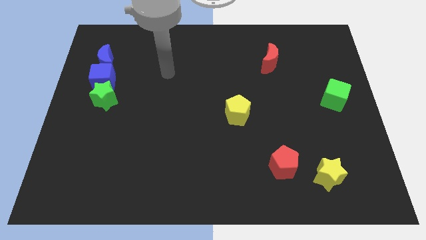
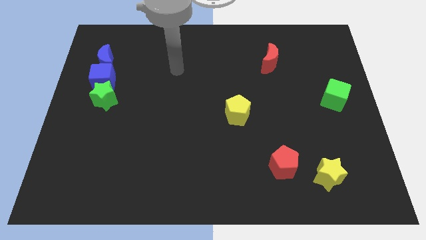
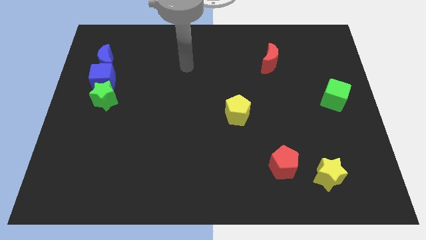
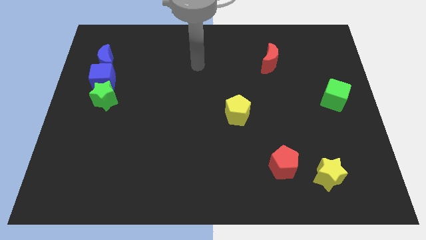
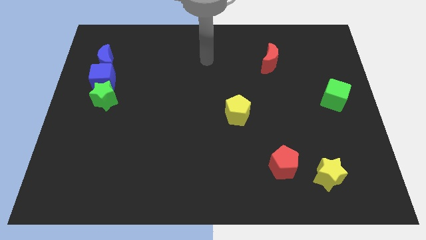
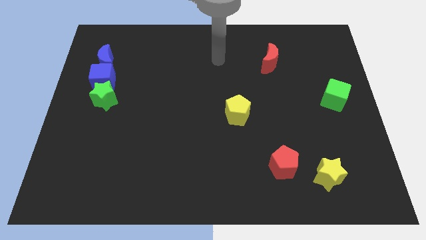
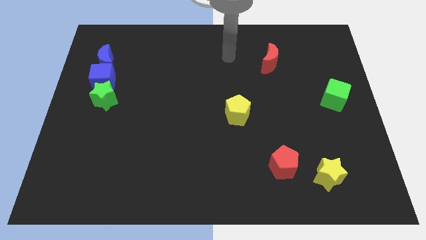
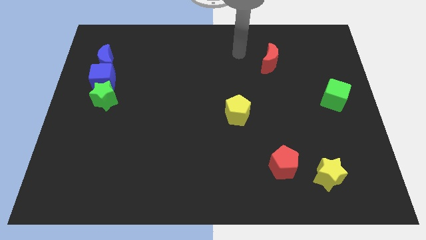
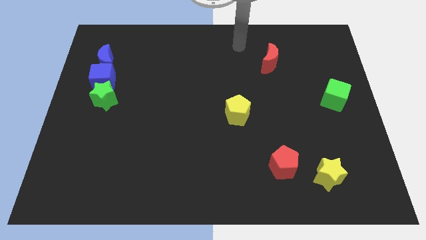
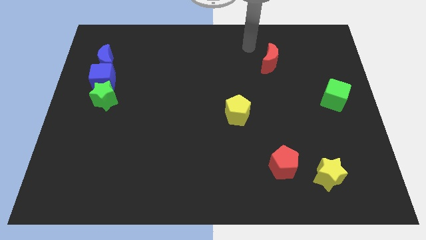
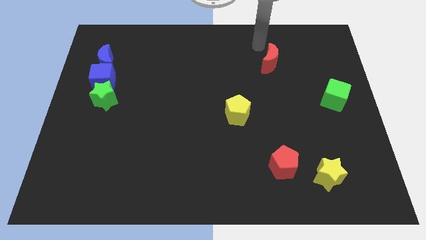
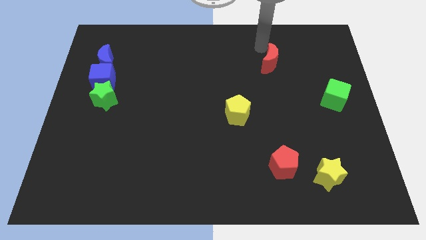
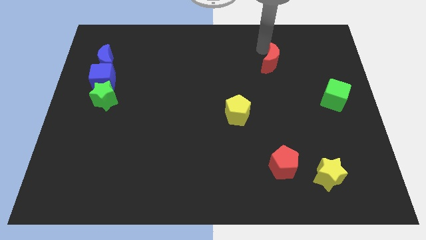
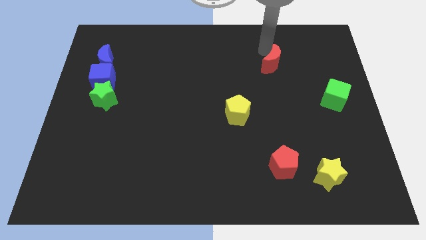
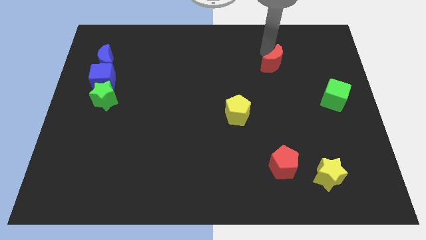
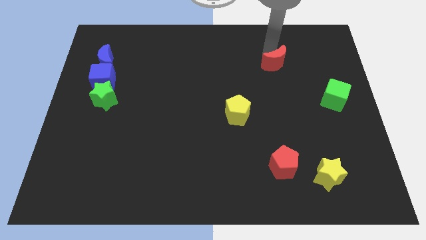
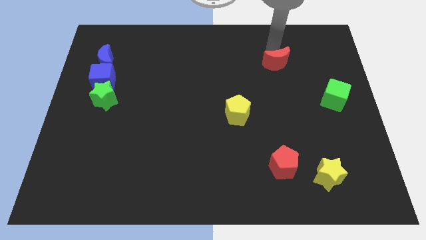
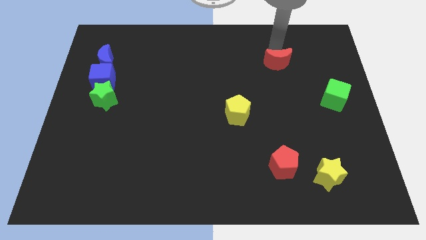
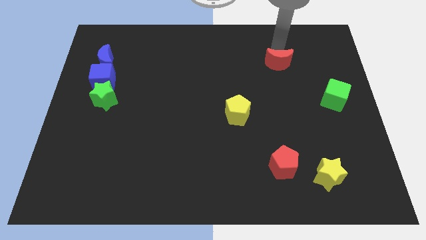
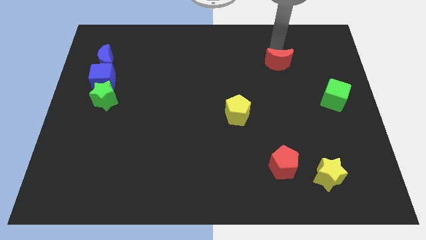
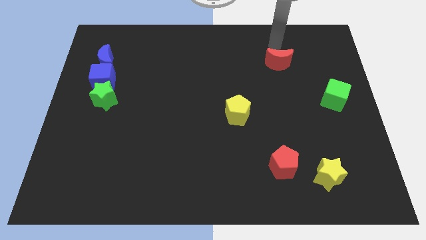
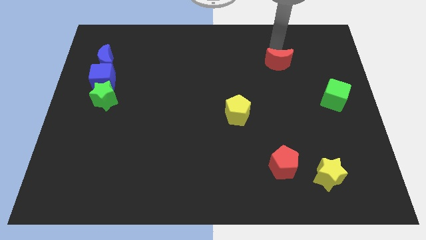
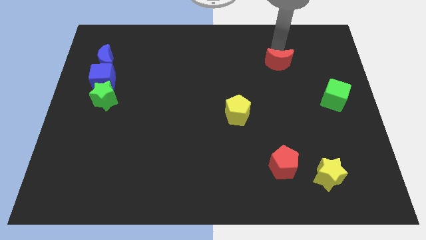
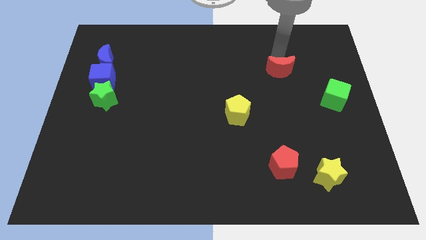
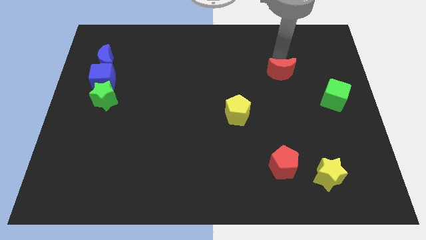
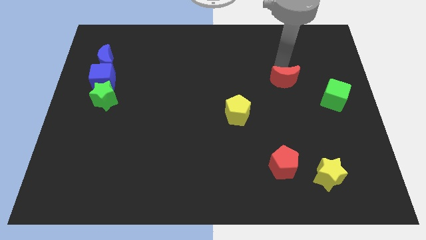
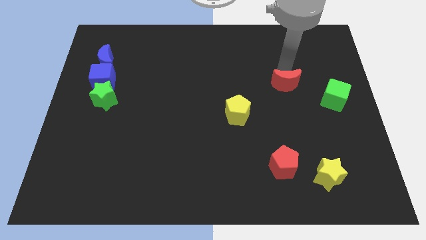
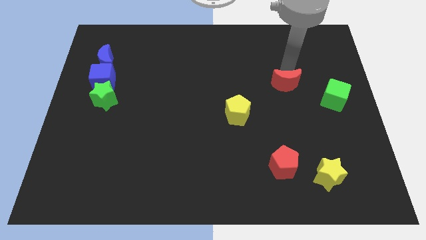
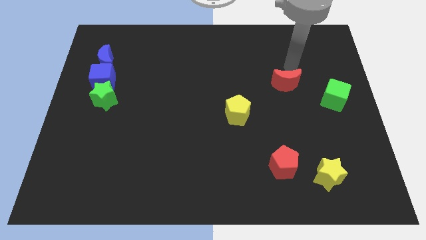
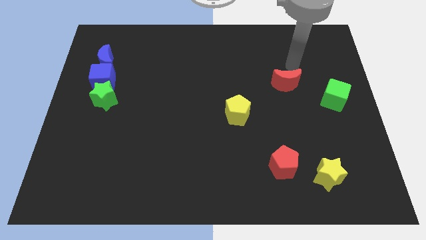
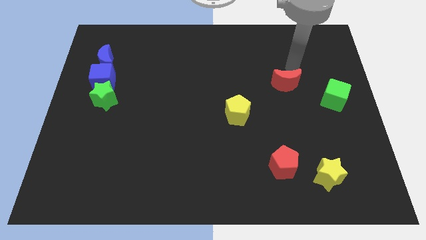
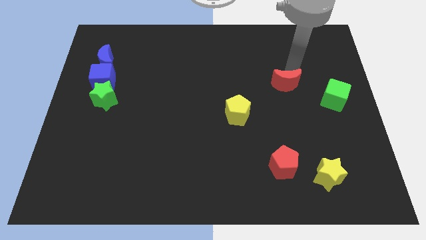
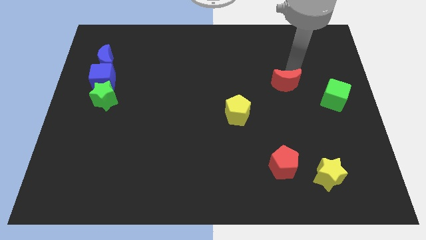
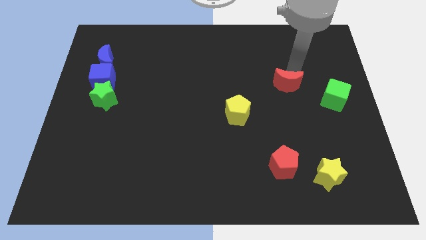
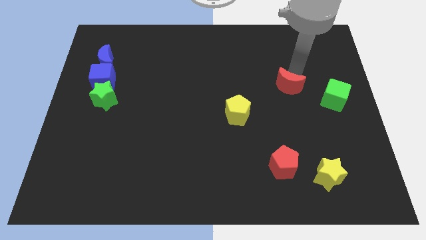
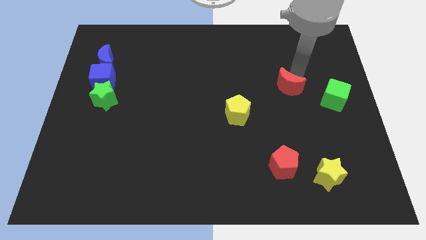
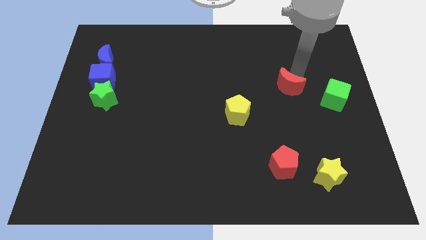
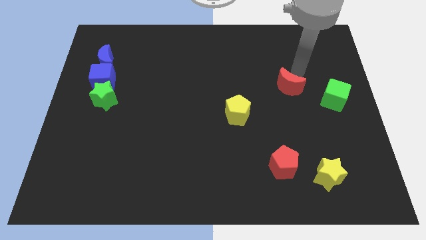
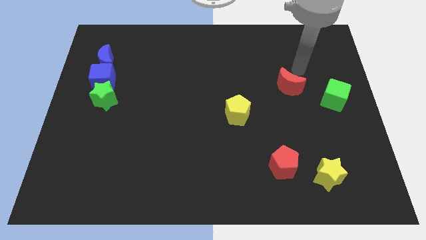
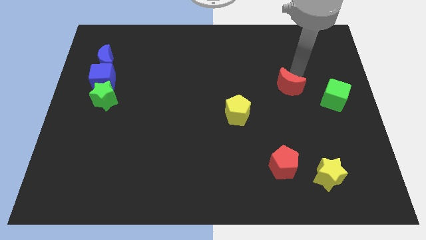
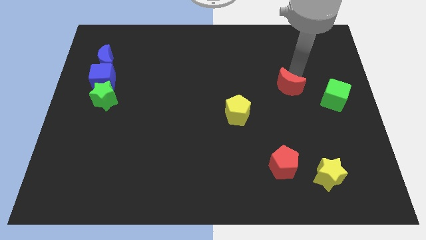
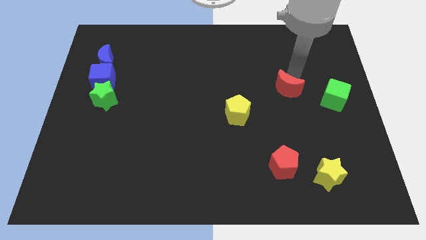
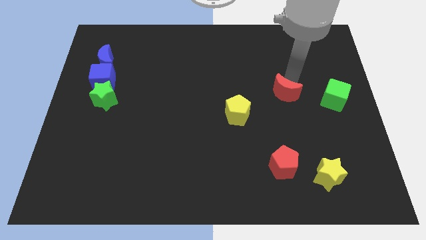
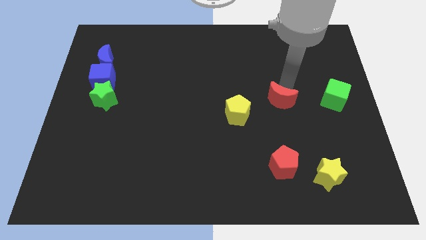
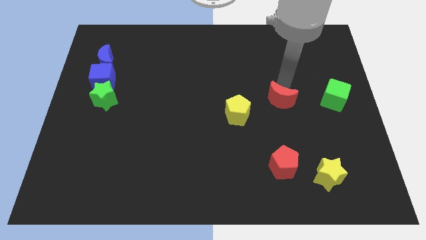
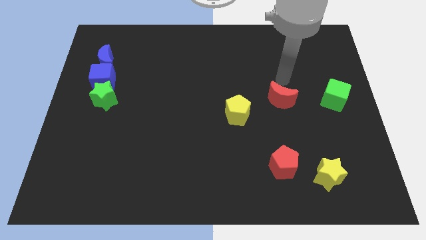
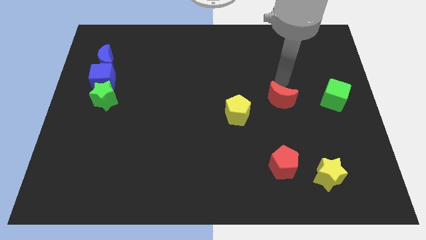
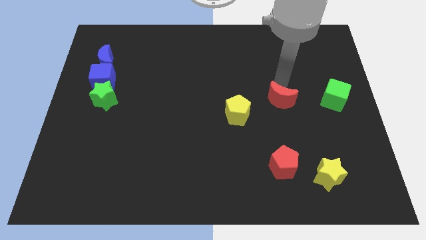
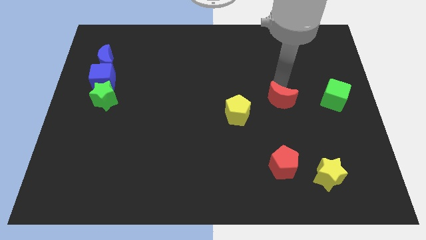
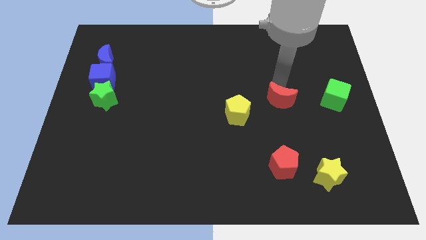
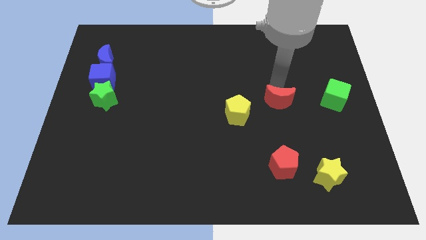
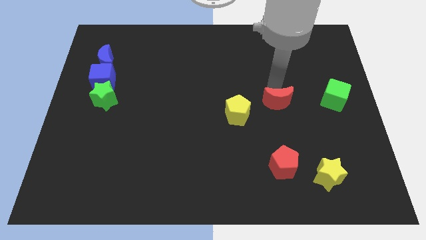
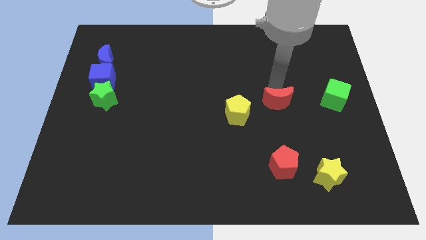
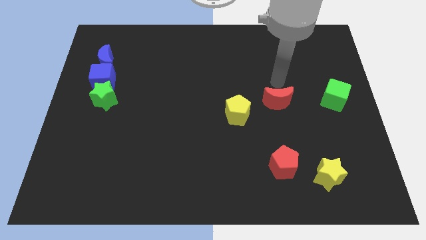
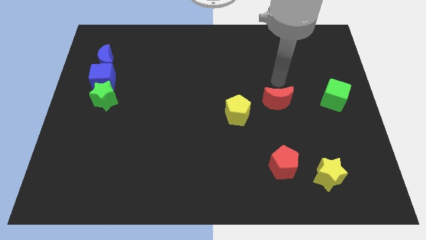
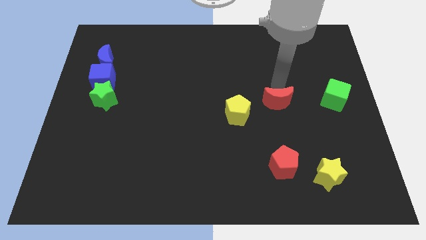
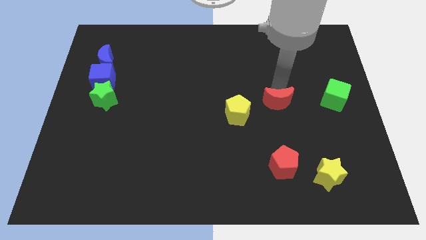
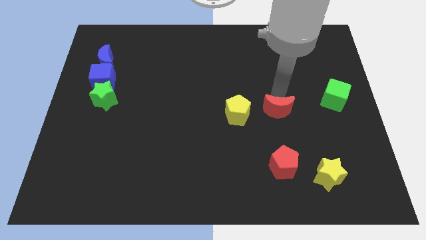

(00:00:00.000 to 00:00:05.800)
move the red moon to the top side of the red pentagon

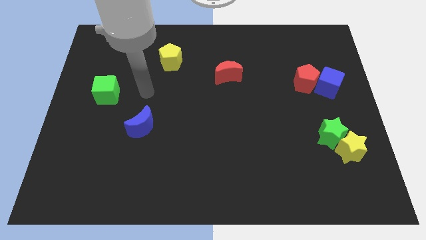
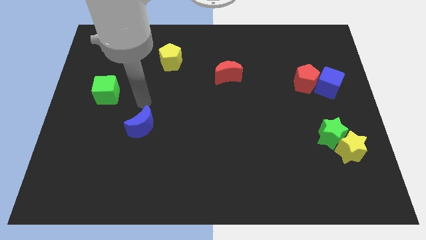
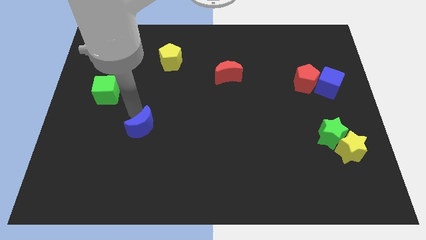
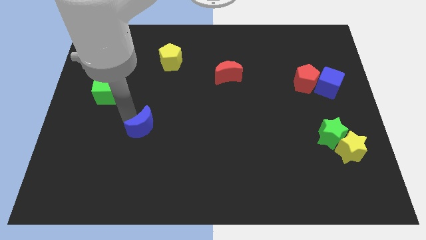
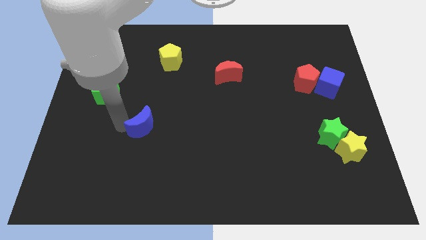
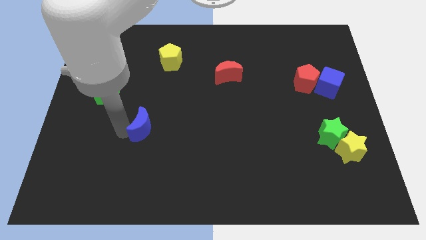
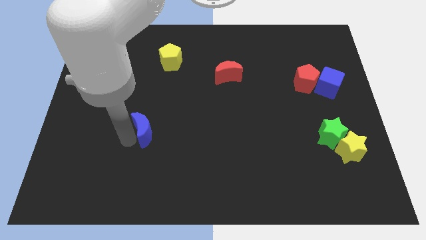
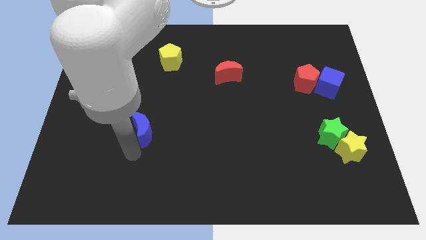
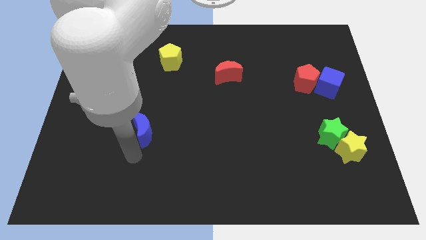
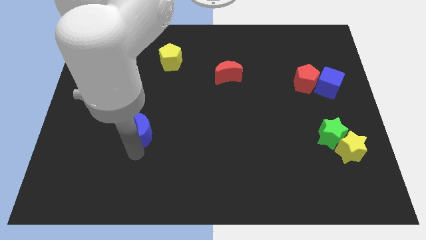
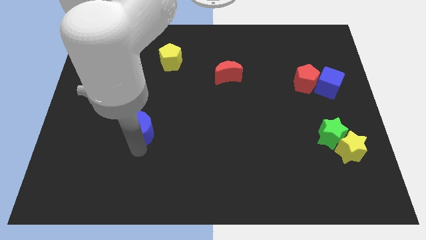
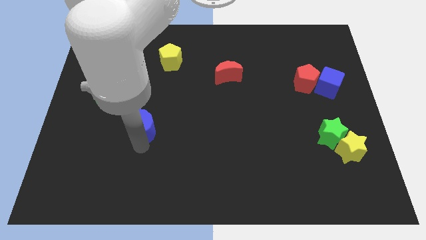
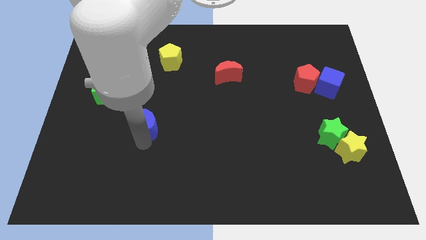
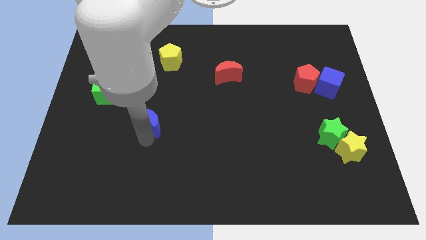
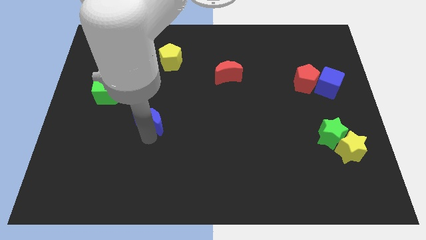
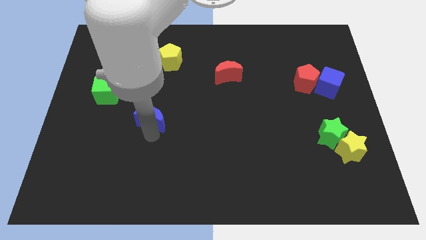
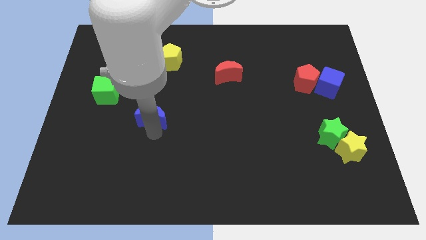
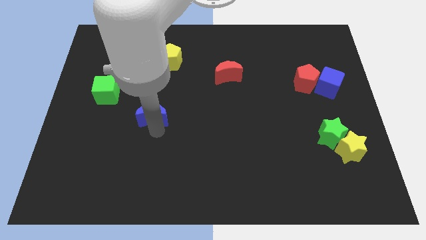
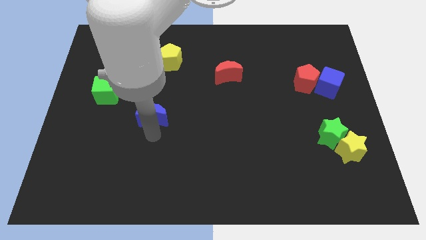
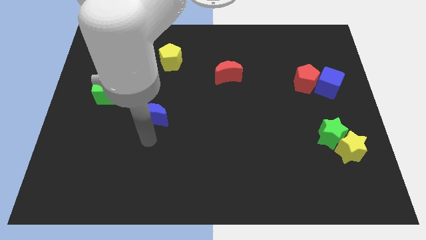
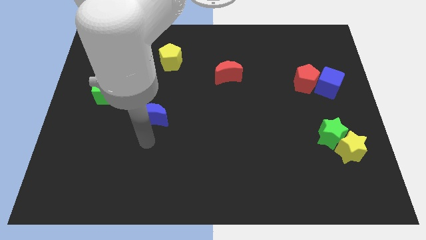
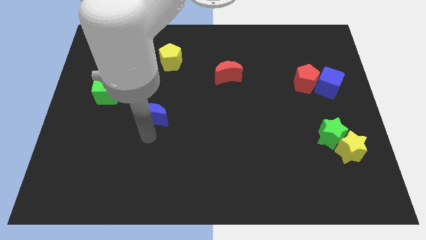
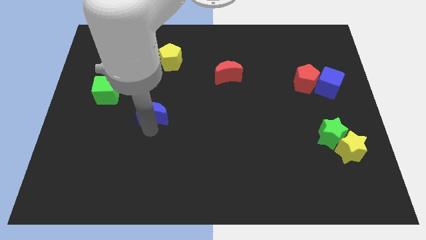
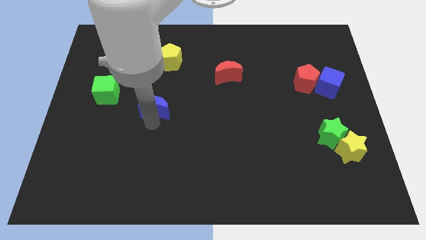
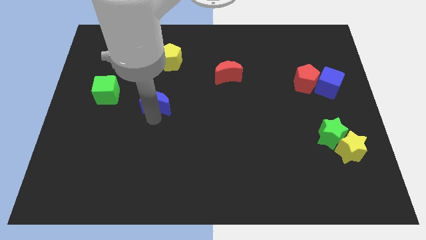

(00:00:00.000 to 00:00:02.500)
push the blue moon to the bottom of the yellow pentagon
